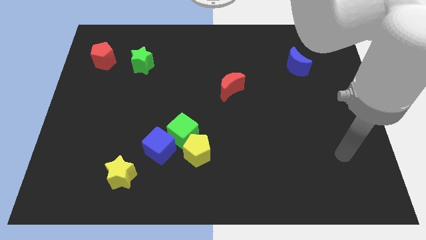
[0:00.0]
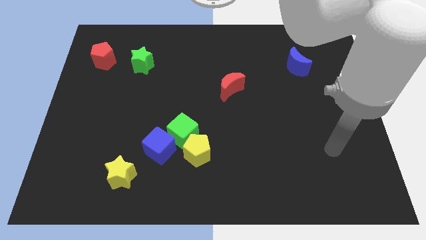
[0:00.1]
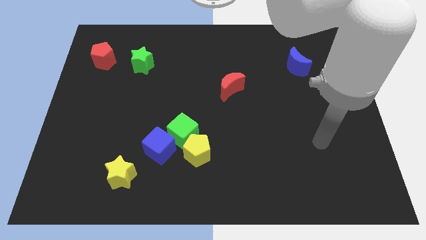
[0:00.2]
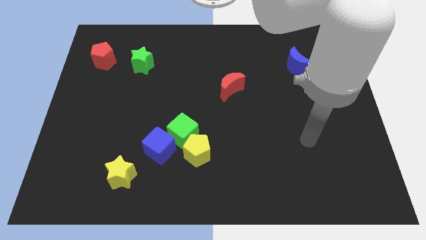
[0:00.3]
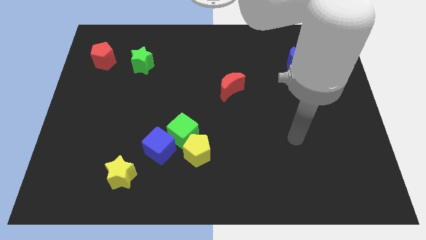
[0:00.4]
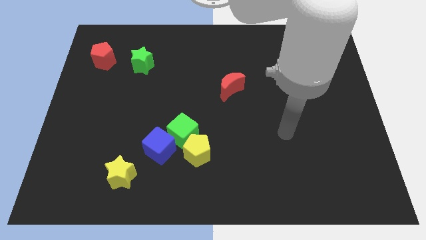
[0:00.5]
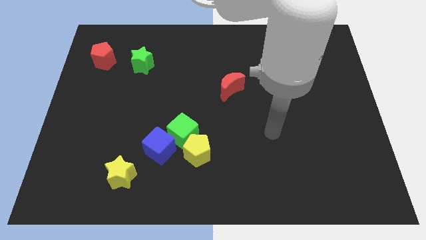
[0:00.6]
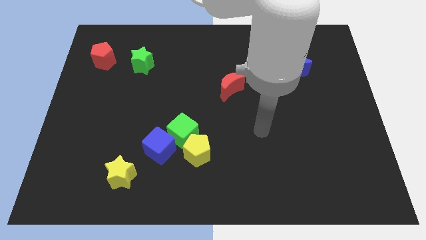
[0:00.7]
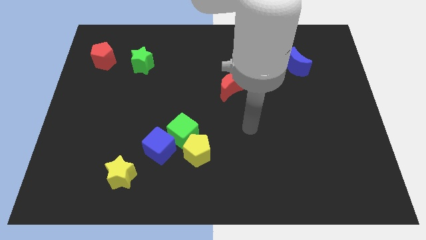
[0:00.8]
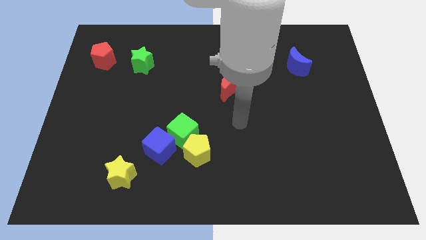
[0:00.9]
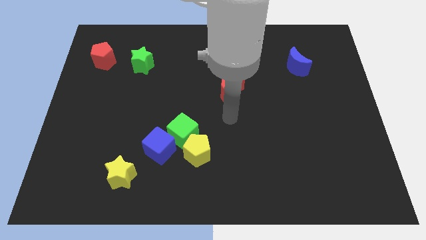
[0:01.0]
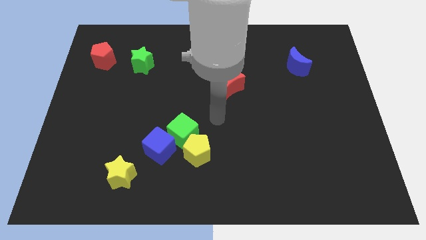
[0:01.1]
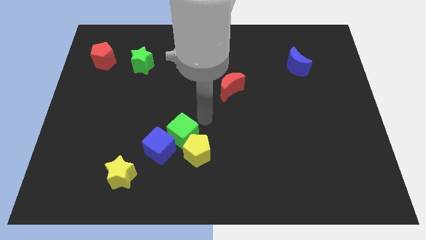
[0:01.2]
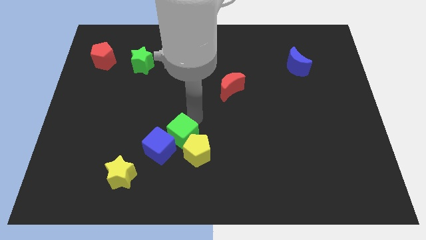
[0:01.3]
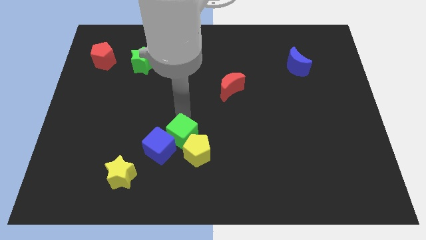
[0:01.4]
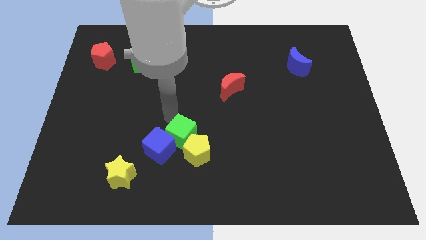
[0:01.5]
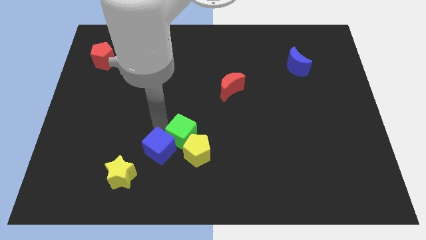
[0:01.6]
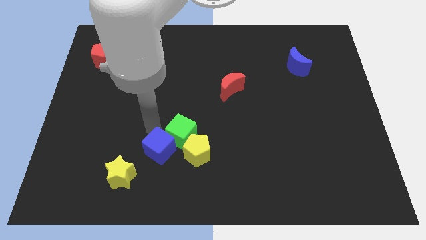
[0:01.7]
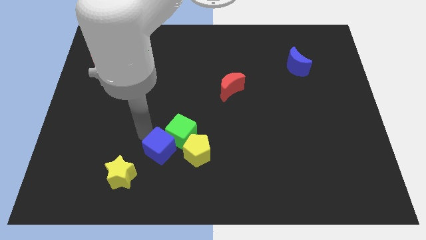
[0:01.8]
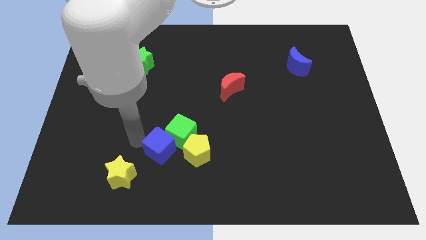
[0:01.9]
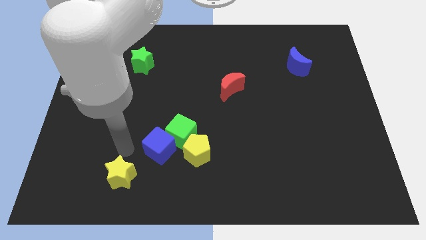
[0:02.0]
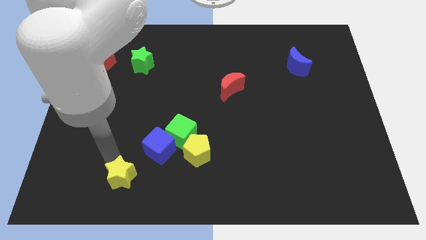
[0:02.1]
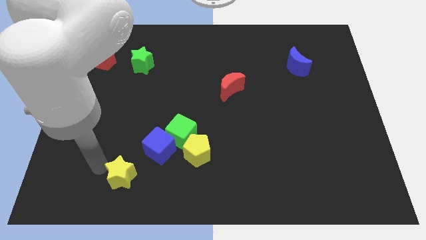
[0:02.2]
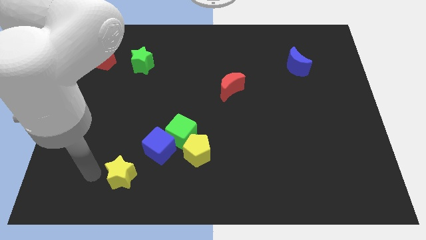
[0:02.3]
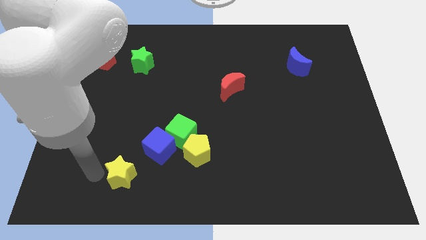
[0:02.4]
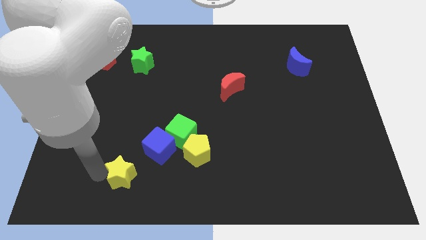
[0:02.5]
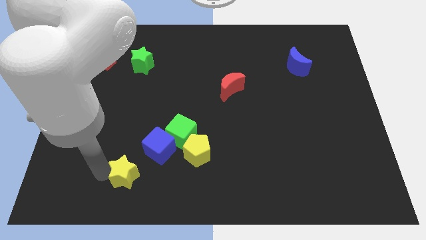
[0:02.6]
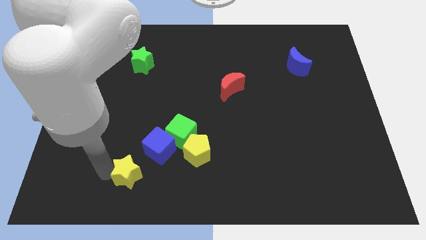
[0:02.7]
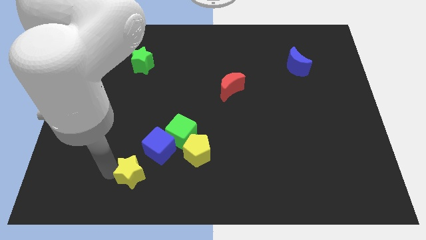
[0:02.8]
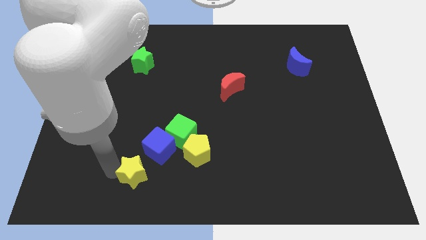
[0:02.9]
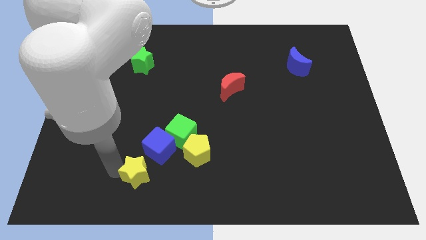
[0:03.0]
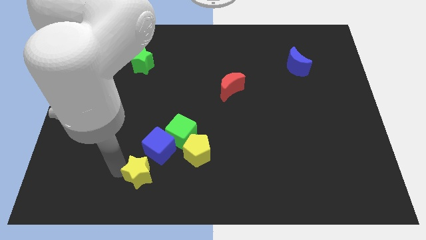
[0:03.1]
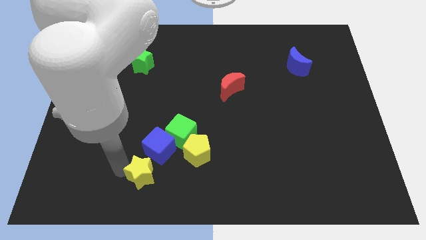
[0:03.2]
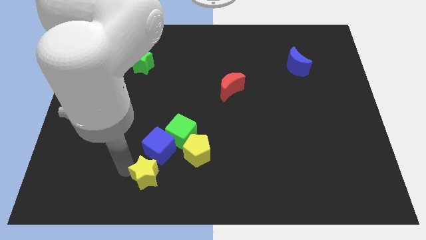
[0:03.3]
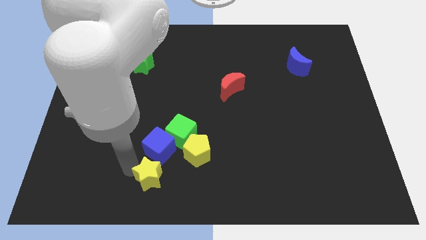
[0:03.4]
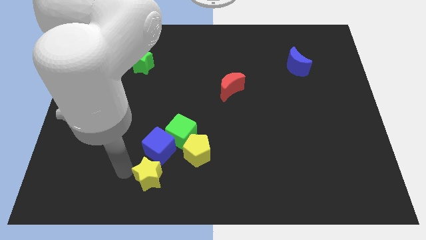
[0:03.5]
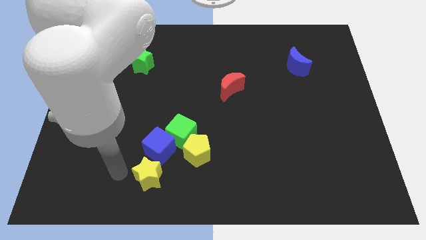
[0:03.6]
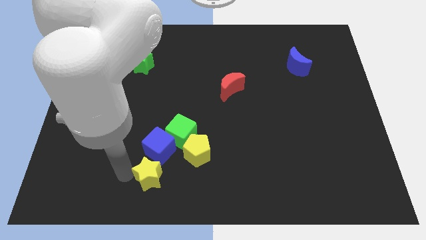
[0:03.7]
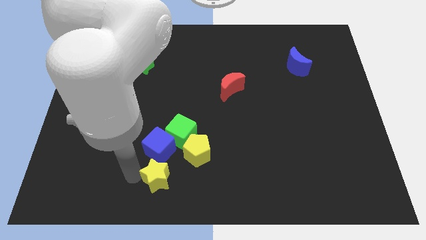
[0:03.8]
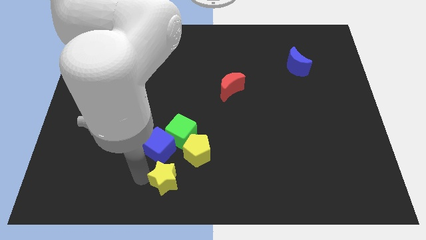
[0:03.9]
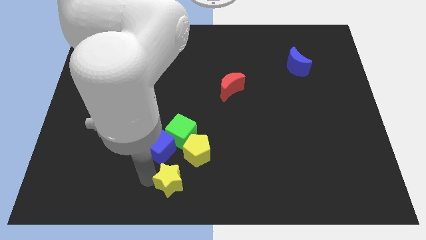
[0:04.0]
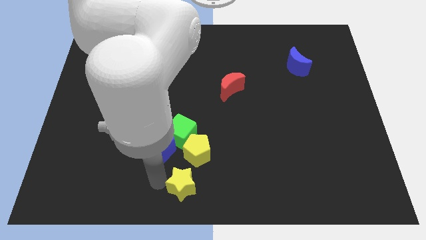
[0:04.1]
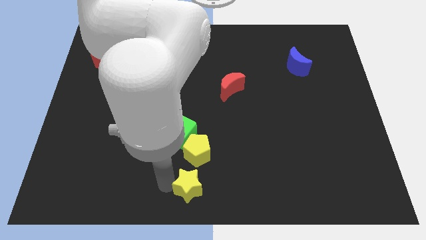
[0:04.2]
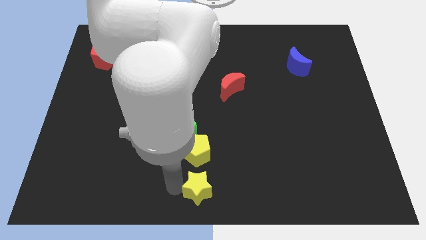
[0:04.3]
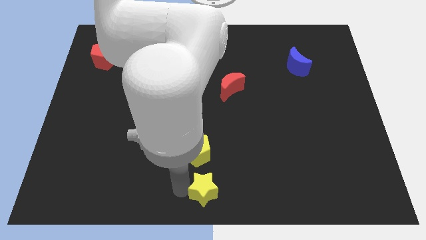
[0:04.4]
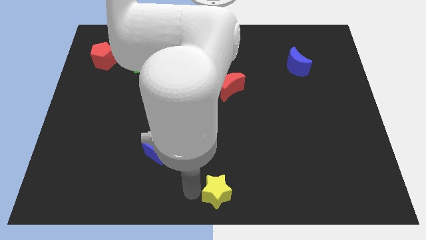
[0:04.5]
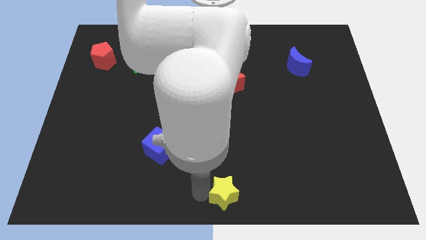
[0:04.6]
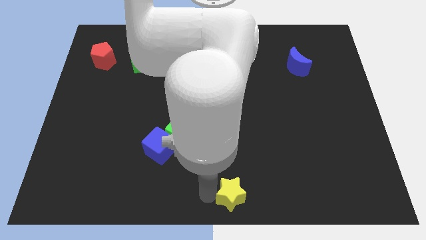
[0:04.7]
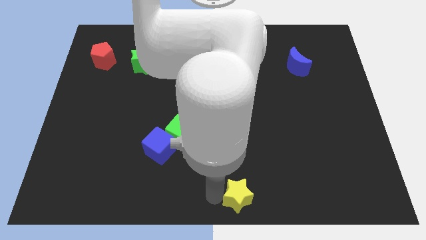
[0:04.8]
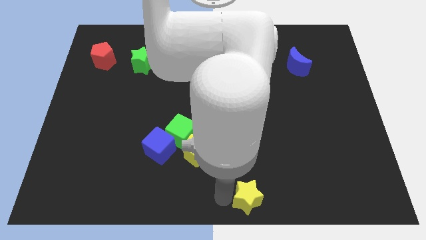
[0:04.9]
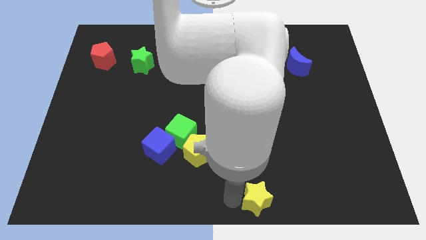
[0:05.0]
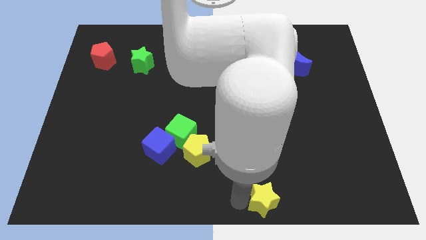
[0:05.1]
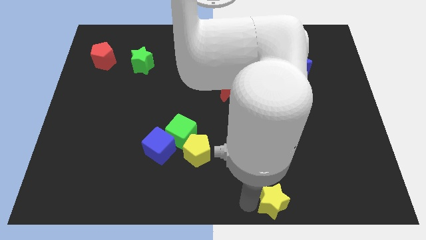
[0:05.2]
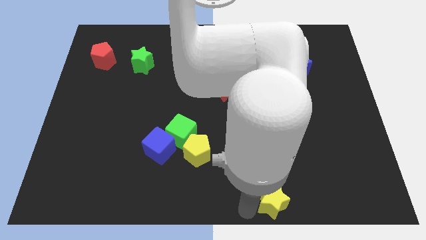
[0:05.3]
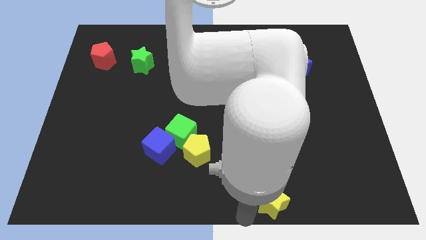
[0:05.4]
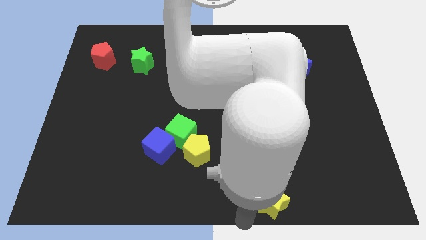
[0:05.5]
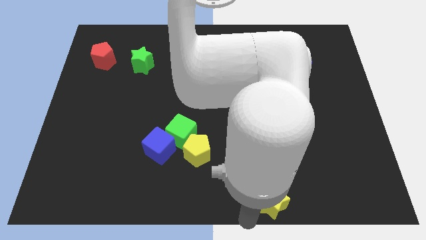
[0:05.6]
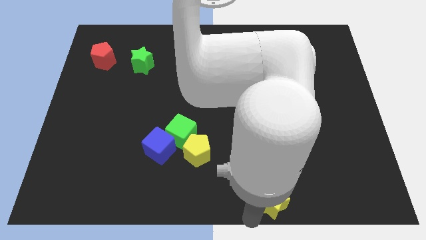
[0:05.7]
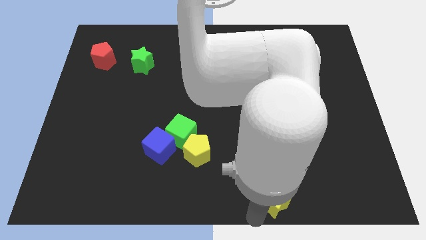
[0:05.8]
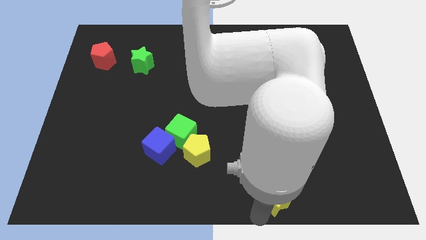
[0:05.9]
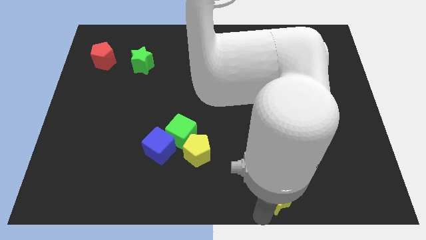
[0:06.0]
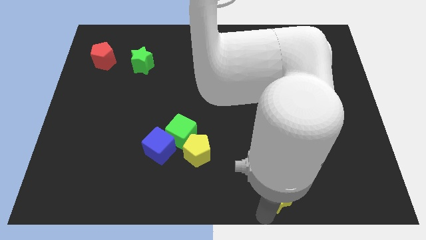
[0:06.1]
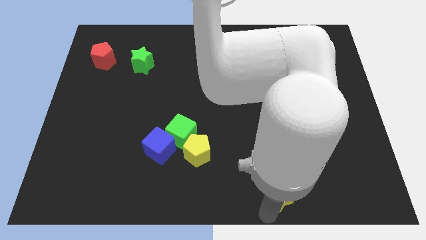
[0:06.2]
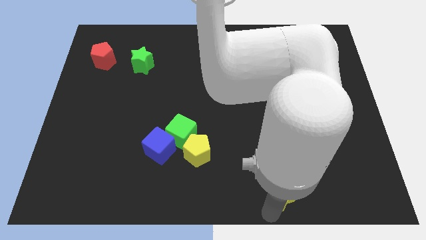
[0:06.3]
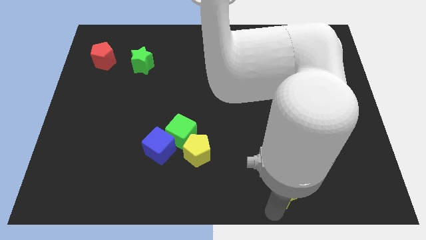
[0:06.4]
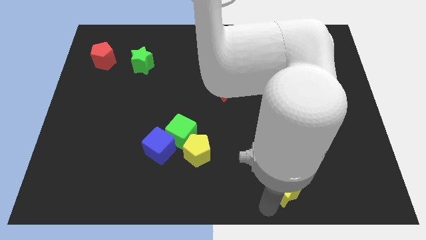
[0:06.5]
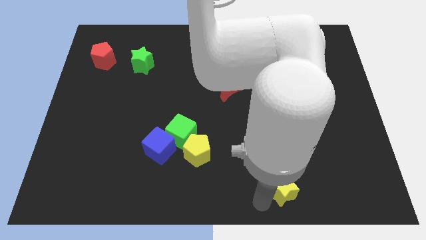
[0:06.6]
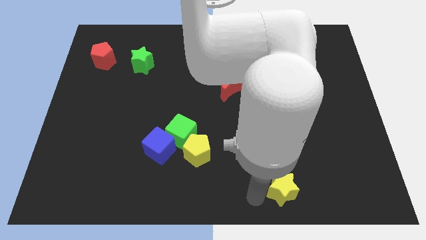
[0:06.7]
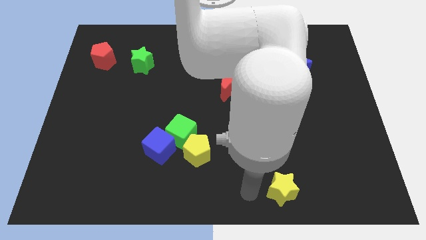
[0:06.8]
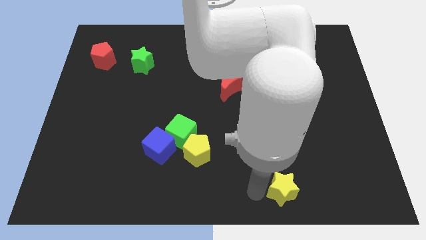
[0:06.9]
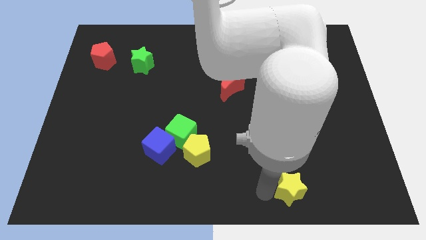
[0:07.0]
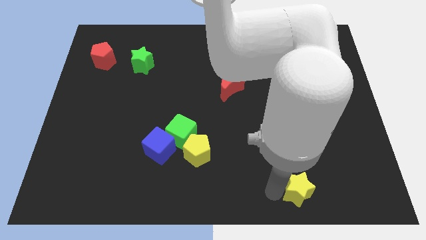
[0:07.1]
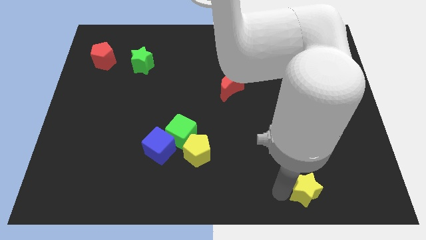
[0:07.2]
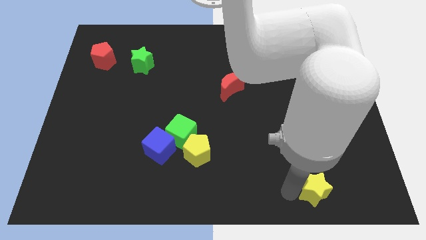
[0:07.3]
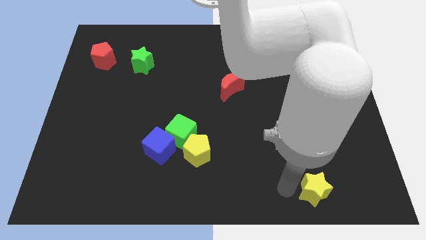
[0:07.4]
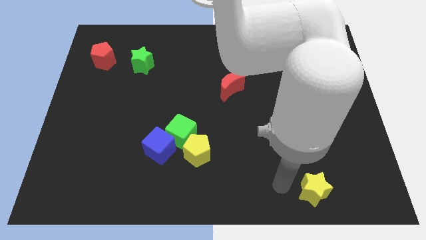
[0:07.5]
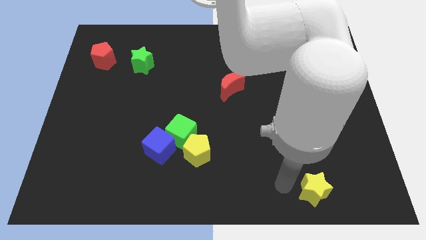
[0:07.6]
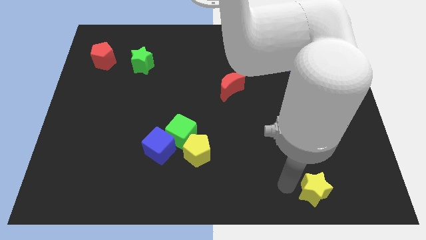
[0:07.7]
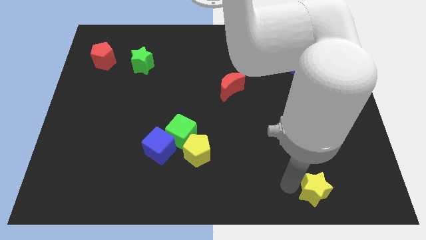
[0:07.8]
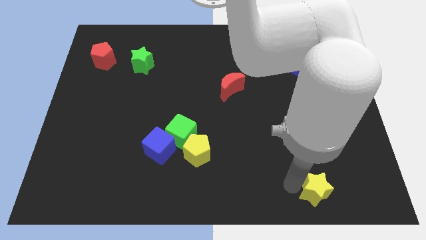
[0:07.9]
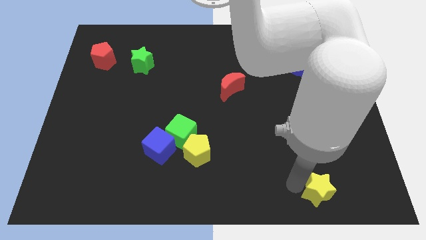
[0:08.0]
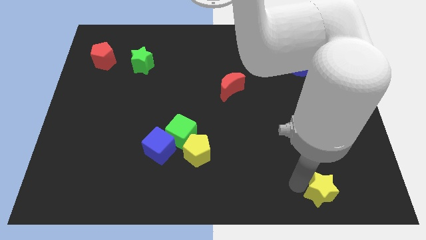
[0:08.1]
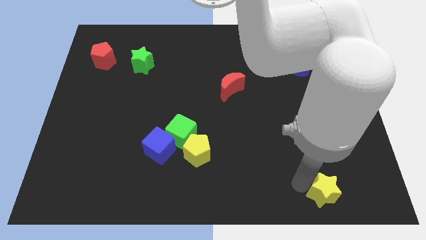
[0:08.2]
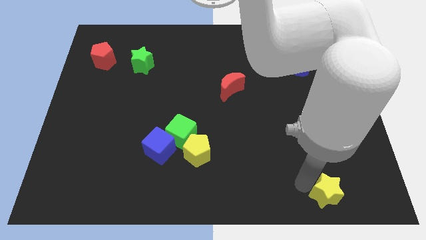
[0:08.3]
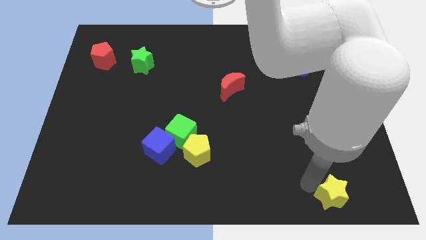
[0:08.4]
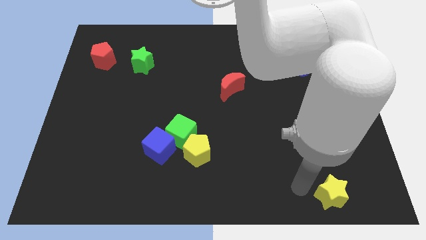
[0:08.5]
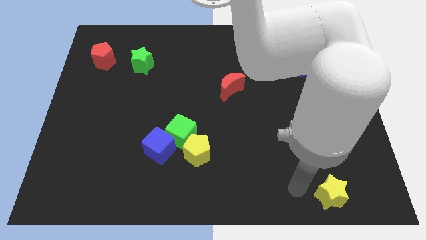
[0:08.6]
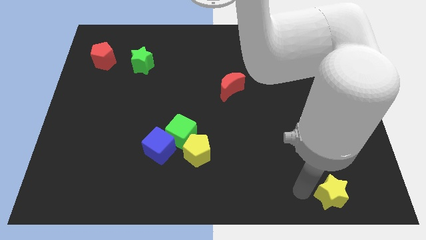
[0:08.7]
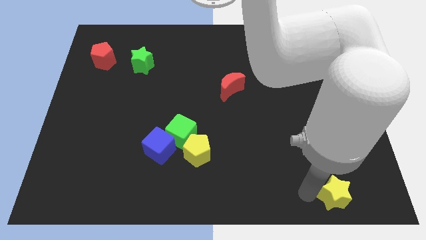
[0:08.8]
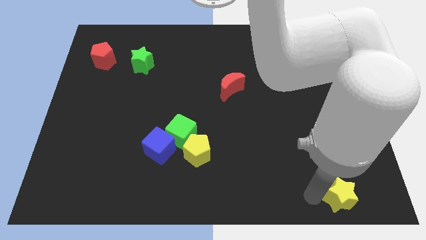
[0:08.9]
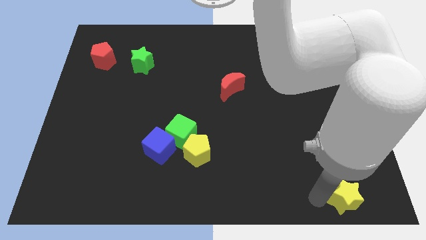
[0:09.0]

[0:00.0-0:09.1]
put the yellow star to the lower right corner
